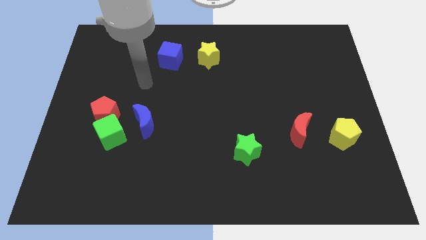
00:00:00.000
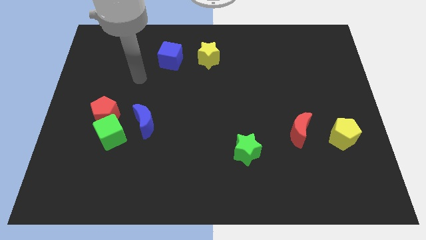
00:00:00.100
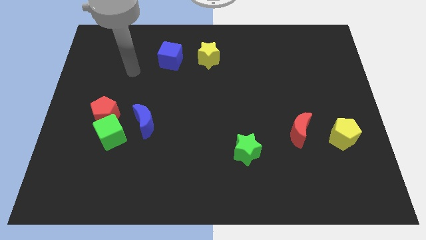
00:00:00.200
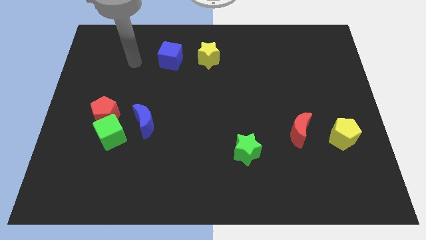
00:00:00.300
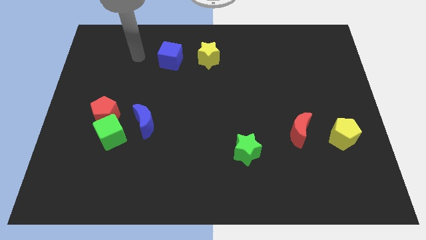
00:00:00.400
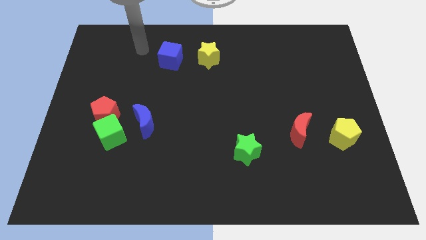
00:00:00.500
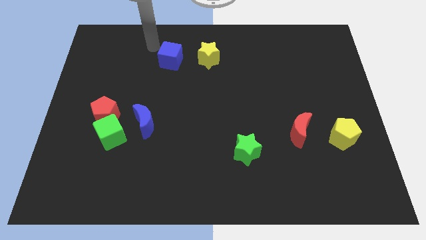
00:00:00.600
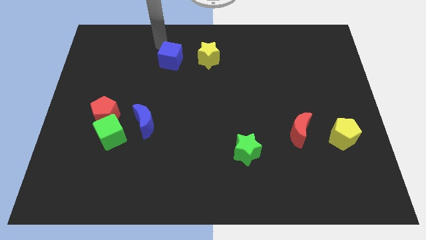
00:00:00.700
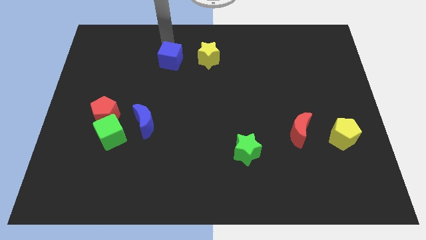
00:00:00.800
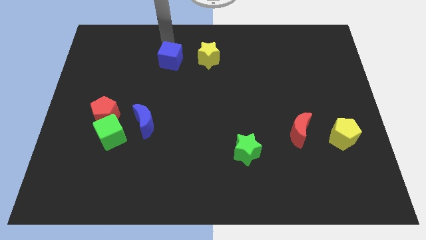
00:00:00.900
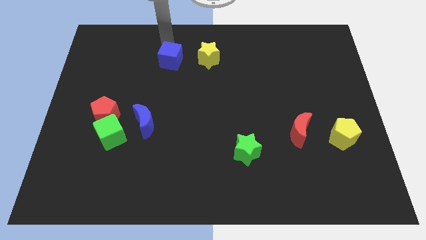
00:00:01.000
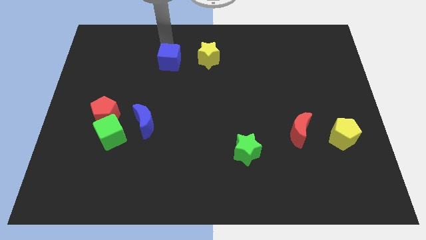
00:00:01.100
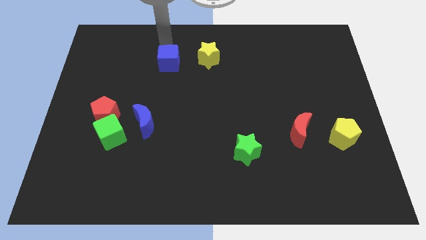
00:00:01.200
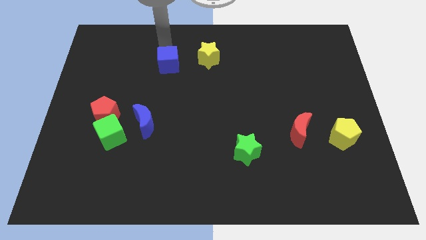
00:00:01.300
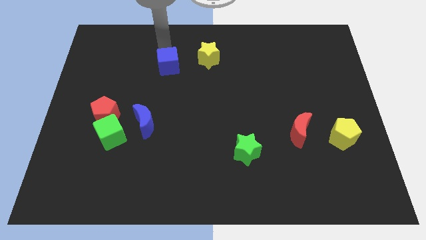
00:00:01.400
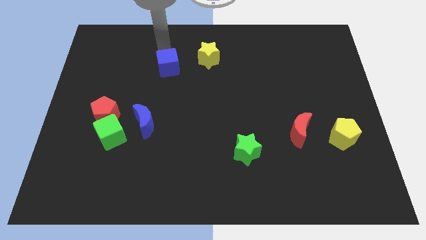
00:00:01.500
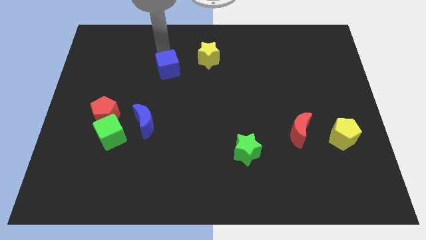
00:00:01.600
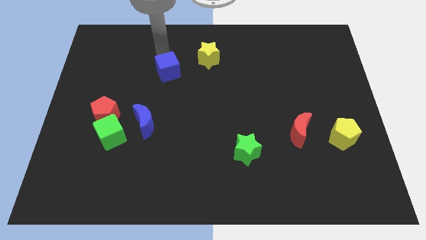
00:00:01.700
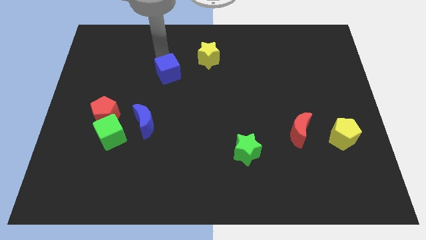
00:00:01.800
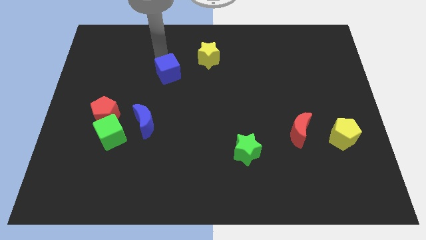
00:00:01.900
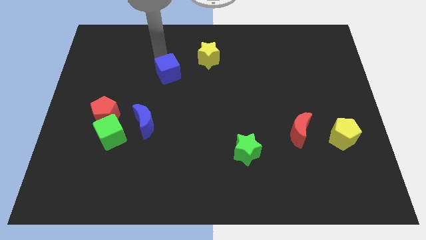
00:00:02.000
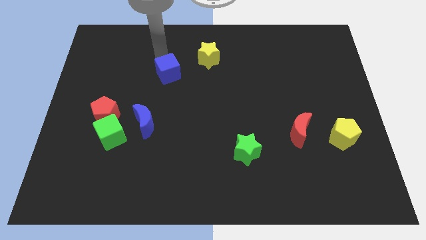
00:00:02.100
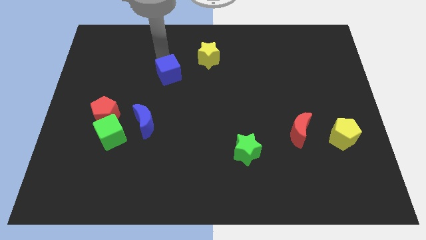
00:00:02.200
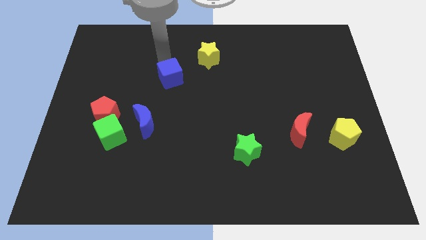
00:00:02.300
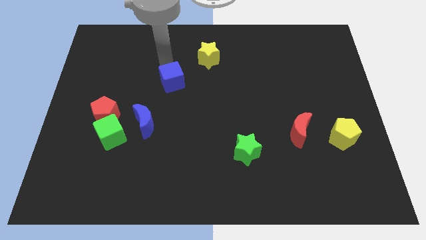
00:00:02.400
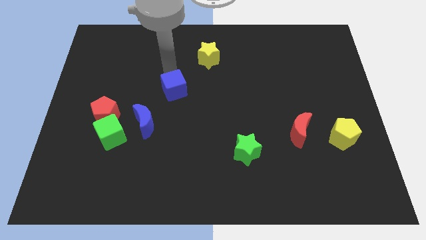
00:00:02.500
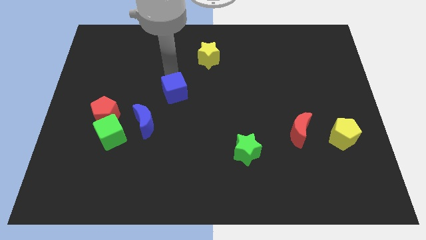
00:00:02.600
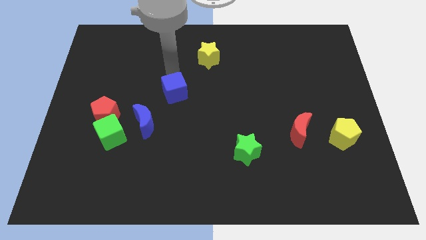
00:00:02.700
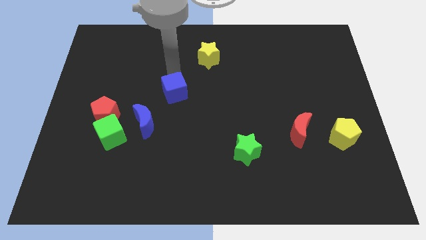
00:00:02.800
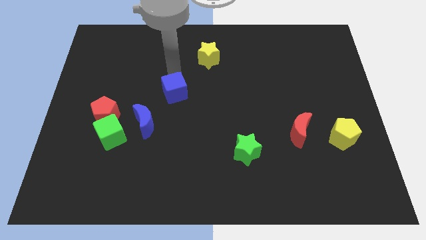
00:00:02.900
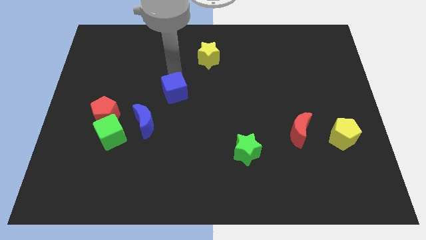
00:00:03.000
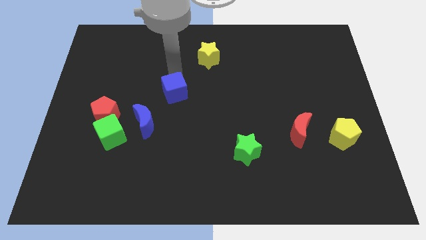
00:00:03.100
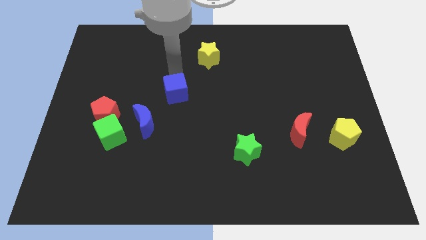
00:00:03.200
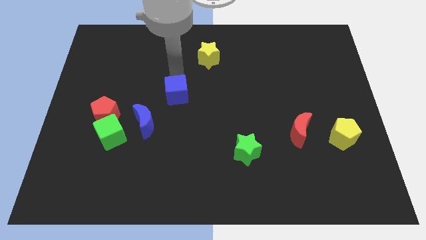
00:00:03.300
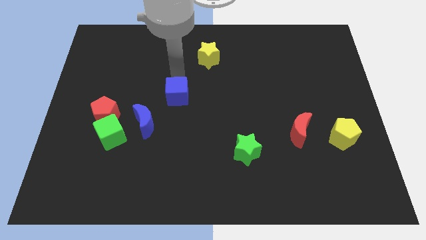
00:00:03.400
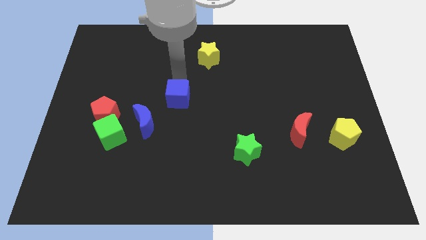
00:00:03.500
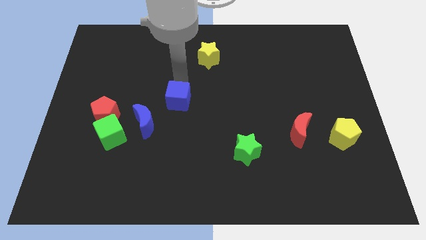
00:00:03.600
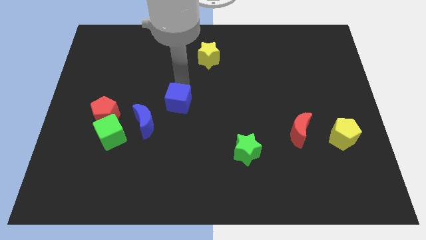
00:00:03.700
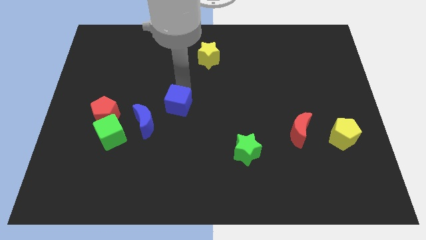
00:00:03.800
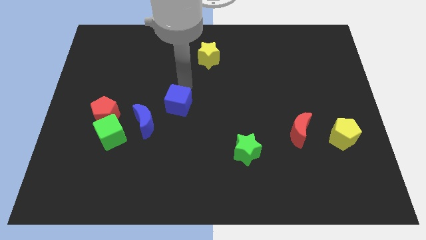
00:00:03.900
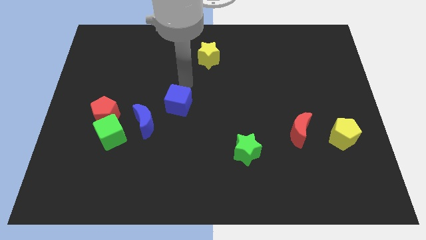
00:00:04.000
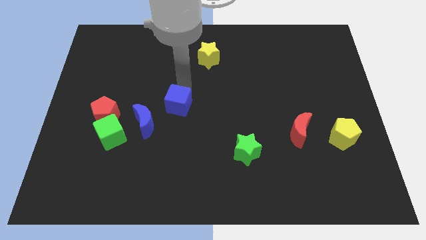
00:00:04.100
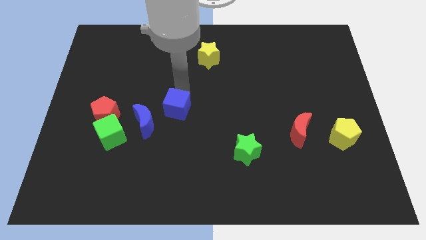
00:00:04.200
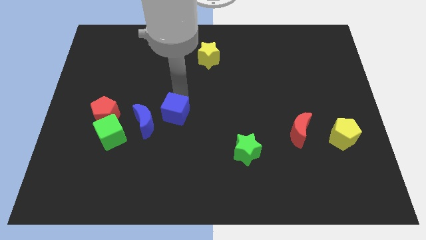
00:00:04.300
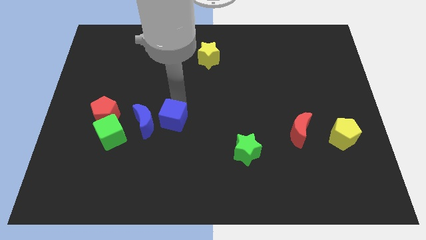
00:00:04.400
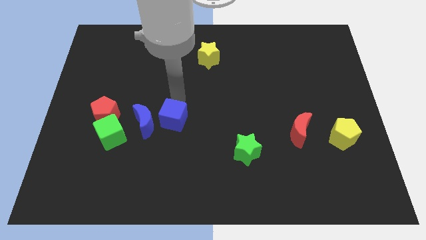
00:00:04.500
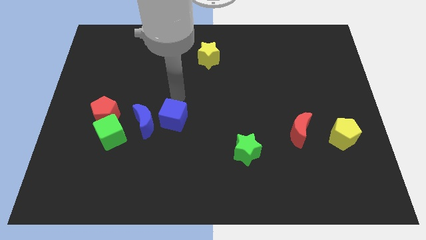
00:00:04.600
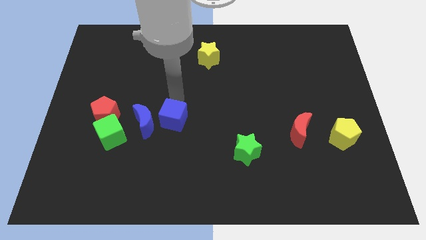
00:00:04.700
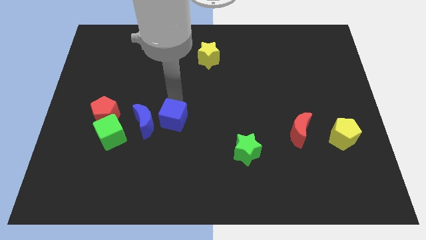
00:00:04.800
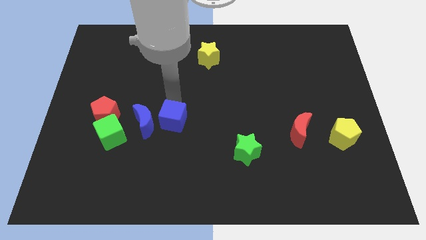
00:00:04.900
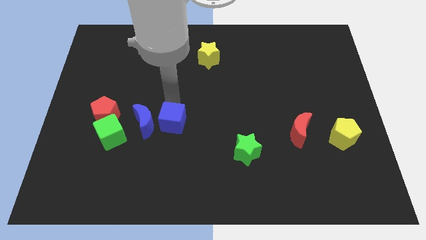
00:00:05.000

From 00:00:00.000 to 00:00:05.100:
slide the blue cube downwards

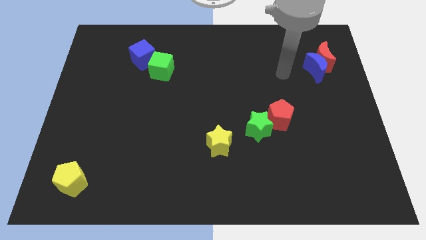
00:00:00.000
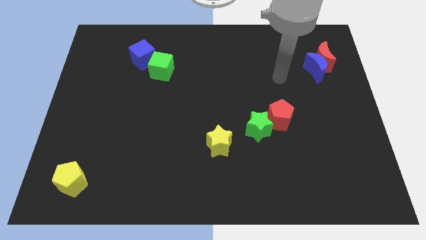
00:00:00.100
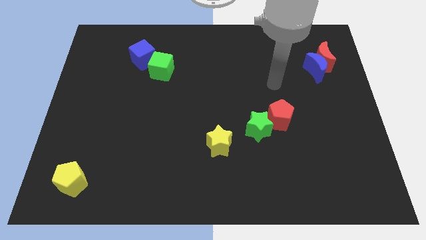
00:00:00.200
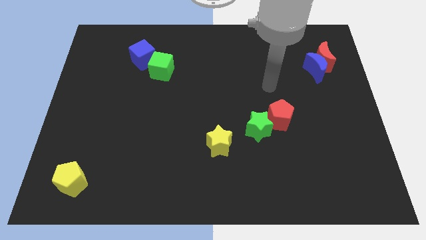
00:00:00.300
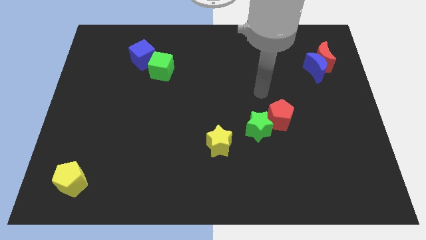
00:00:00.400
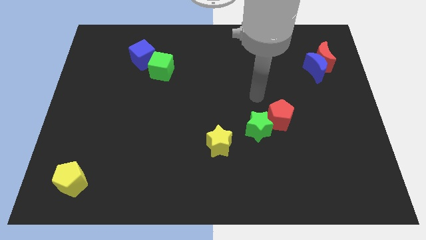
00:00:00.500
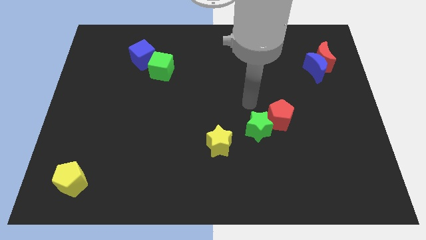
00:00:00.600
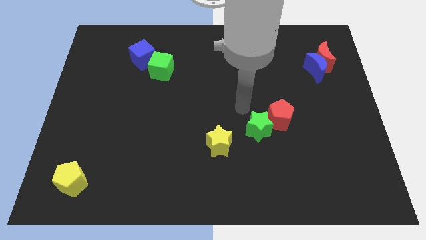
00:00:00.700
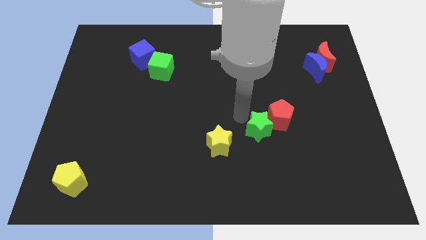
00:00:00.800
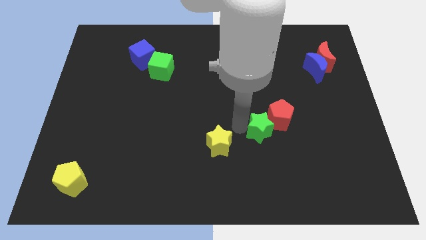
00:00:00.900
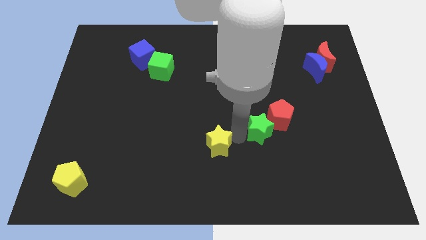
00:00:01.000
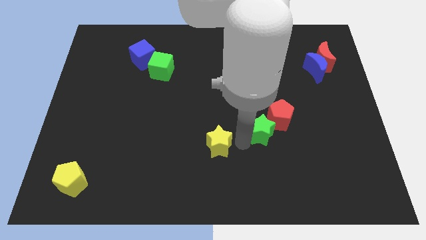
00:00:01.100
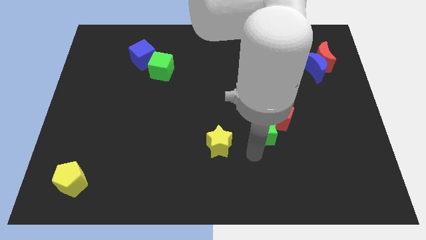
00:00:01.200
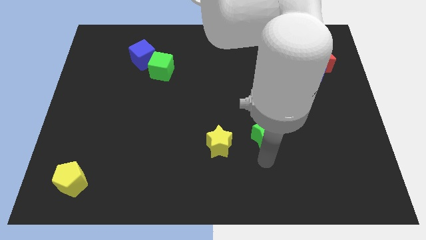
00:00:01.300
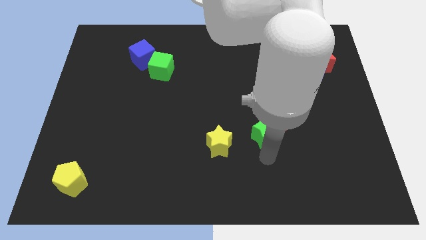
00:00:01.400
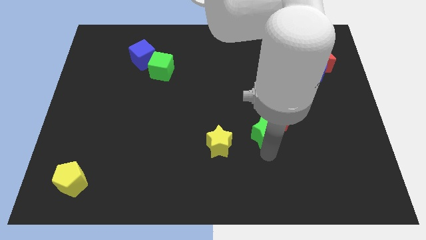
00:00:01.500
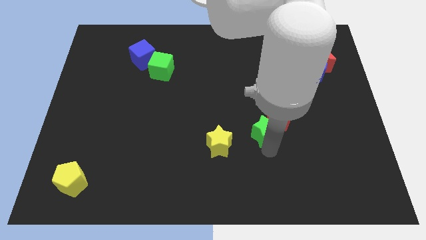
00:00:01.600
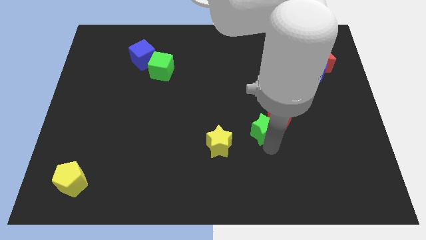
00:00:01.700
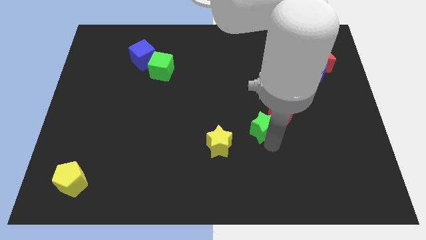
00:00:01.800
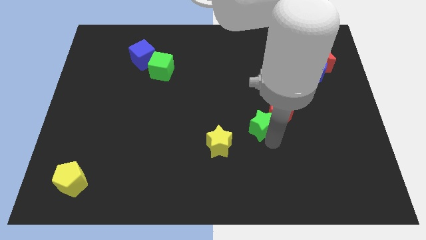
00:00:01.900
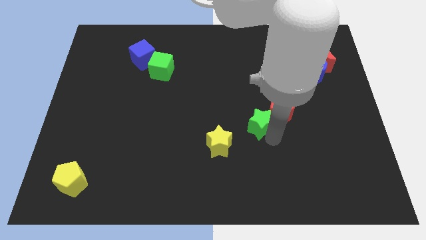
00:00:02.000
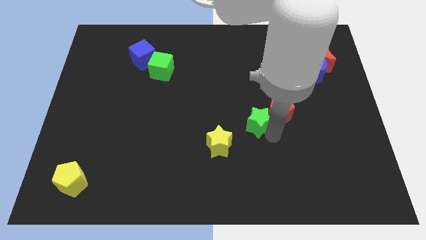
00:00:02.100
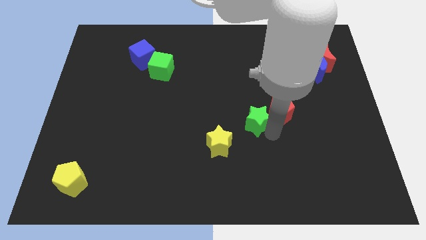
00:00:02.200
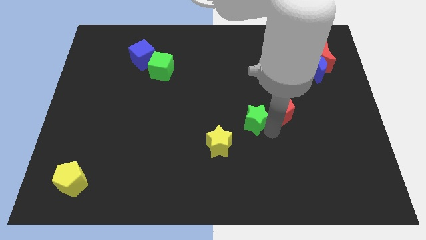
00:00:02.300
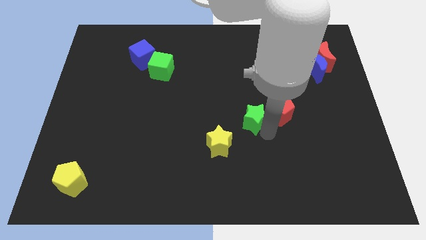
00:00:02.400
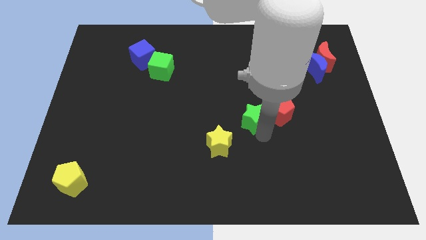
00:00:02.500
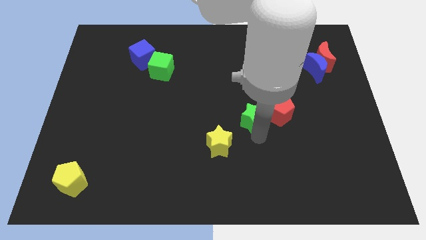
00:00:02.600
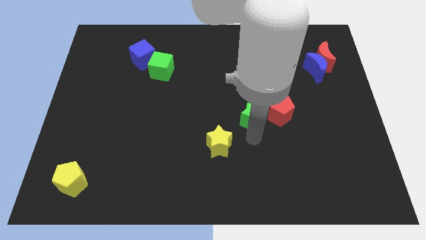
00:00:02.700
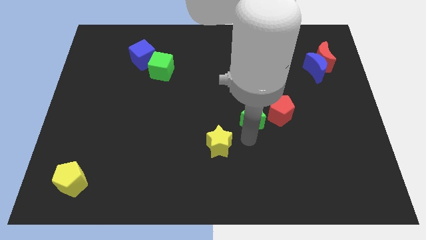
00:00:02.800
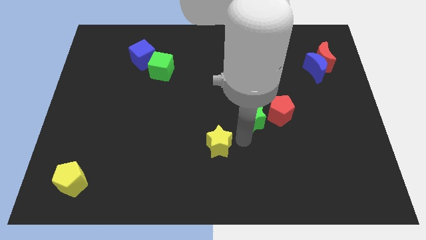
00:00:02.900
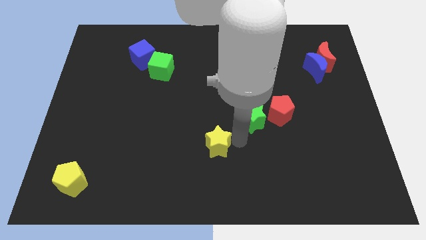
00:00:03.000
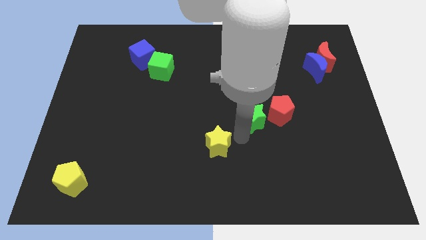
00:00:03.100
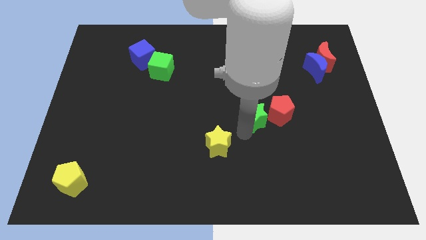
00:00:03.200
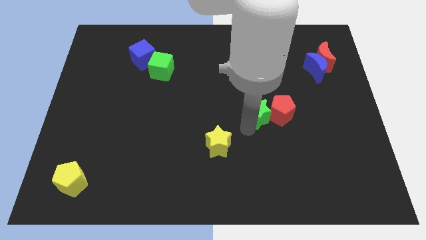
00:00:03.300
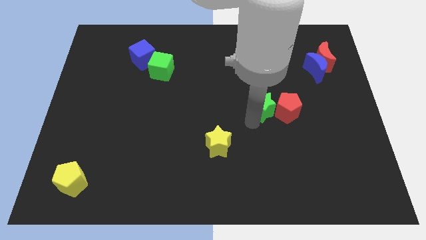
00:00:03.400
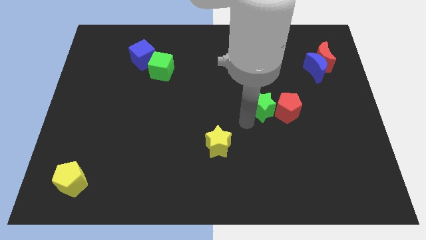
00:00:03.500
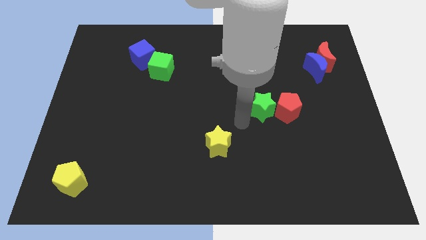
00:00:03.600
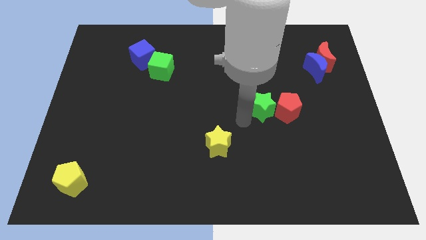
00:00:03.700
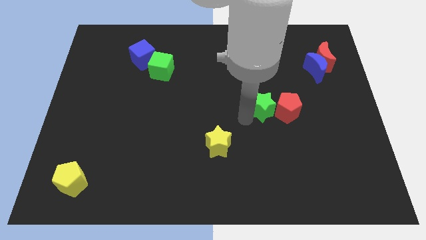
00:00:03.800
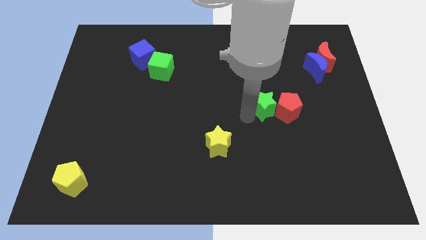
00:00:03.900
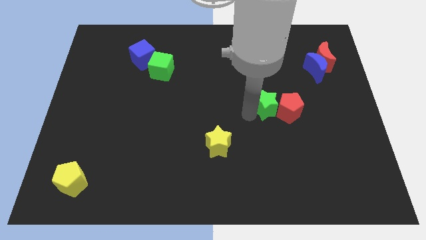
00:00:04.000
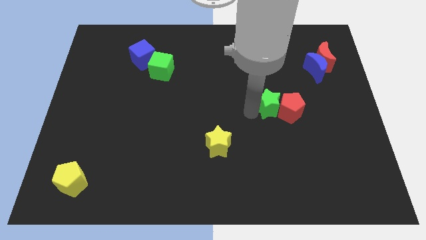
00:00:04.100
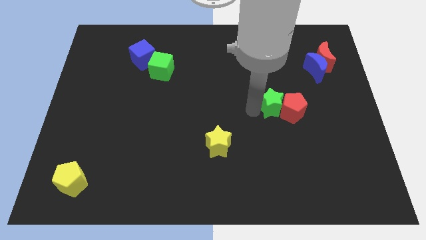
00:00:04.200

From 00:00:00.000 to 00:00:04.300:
push the green star a little up and right diagonally
